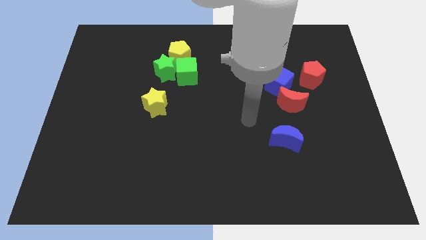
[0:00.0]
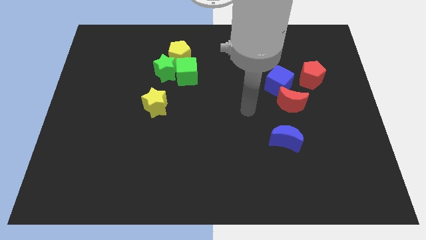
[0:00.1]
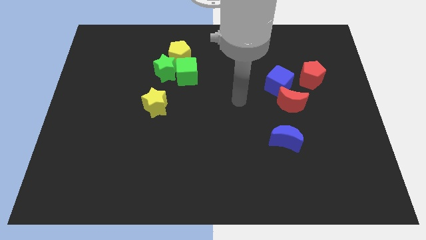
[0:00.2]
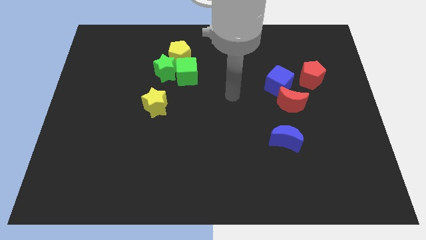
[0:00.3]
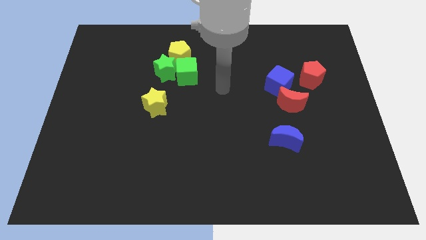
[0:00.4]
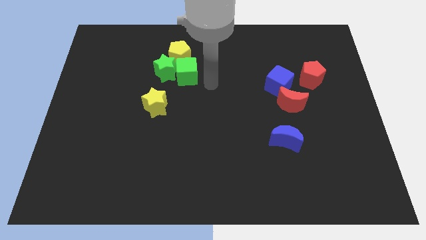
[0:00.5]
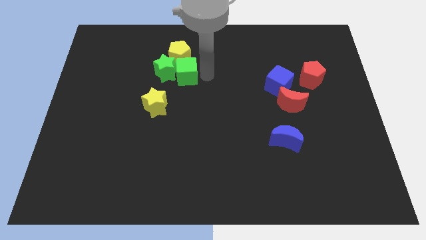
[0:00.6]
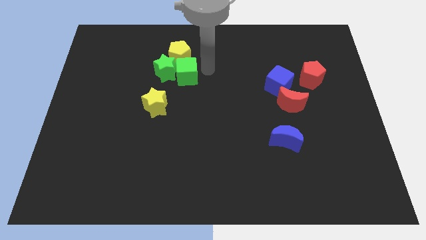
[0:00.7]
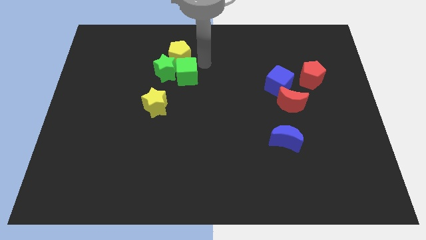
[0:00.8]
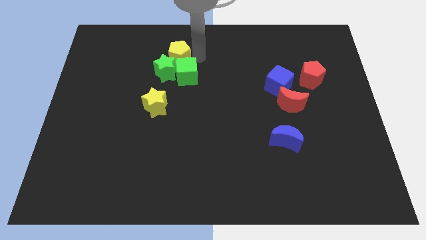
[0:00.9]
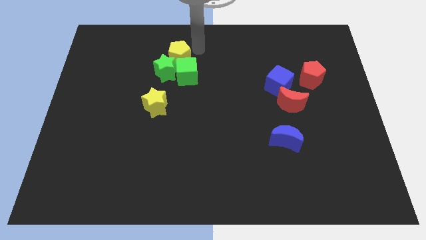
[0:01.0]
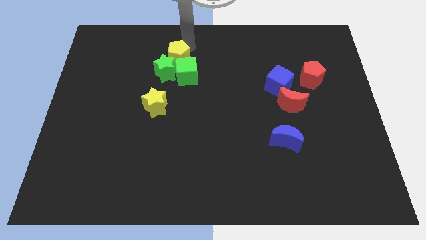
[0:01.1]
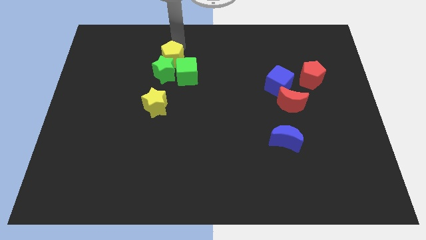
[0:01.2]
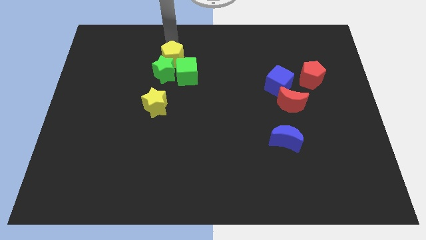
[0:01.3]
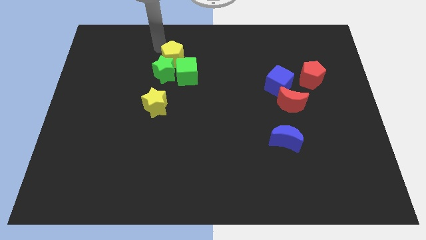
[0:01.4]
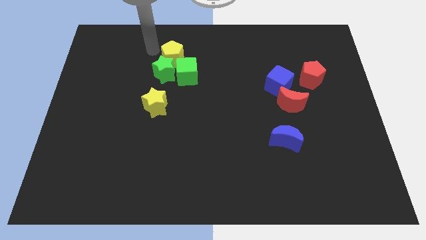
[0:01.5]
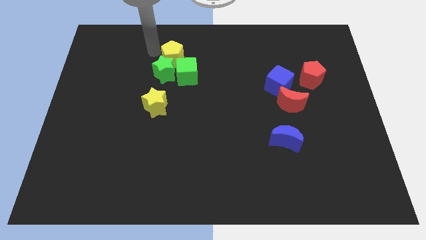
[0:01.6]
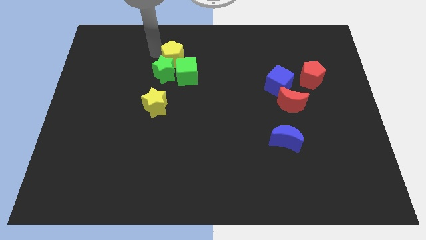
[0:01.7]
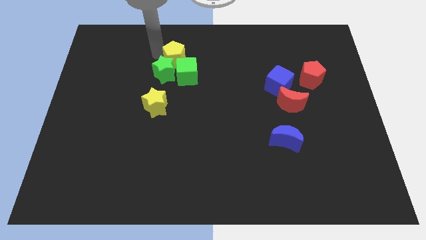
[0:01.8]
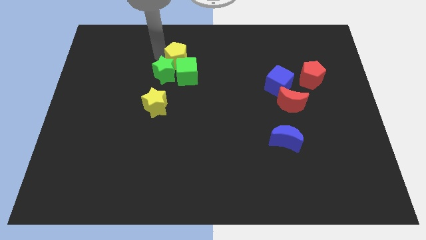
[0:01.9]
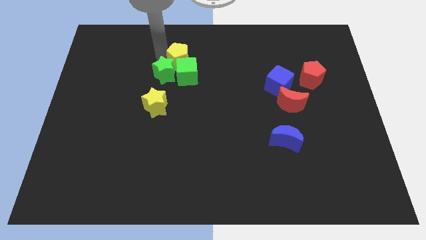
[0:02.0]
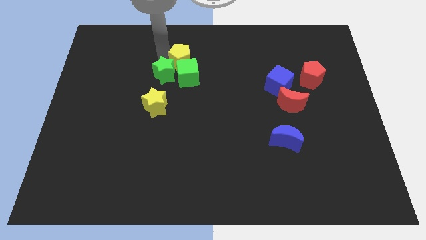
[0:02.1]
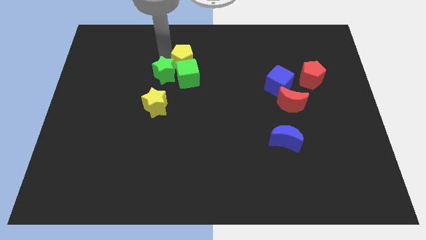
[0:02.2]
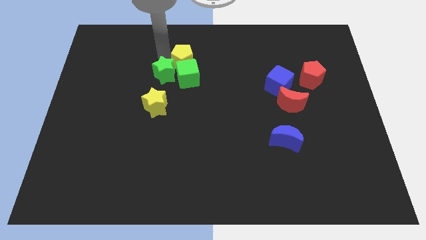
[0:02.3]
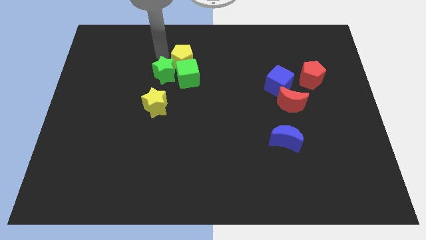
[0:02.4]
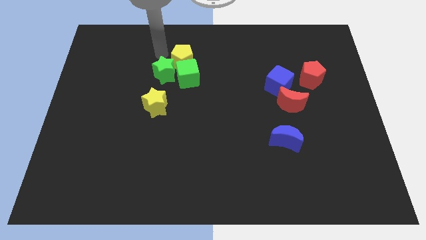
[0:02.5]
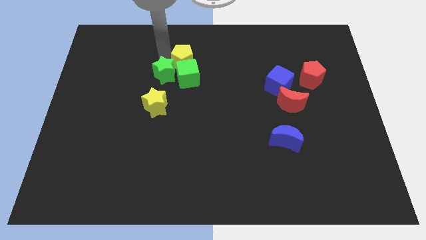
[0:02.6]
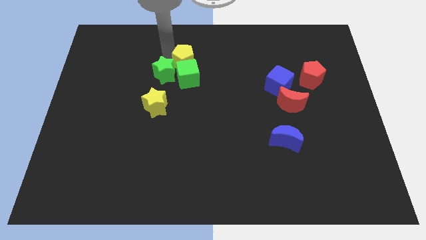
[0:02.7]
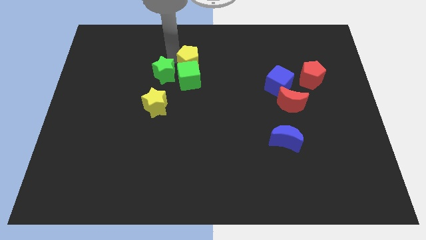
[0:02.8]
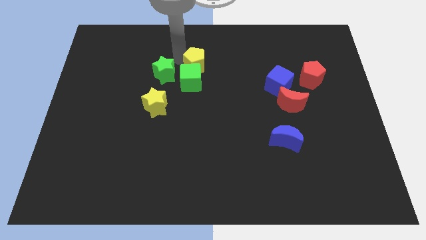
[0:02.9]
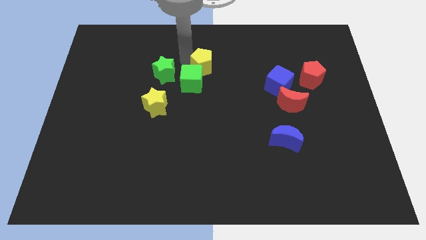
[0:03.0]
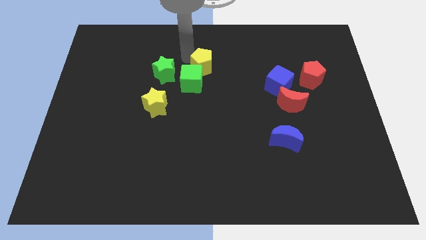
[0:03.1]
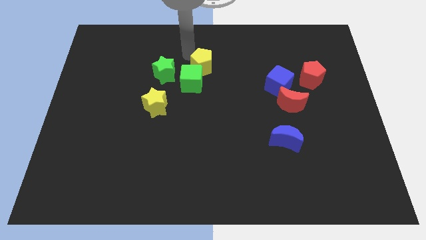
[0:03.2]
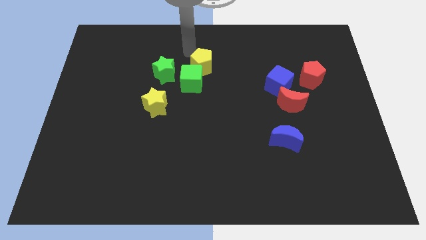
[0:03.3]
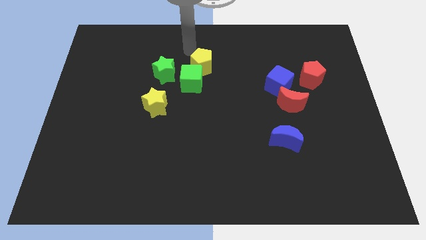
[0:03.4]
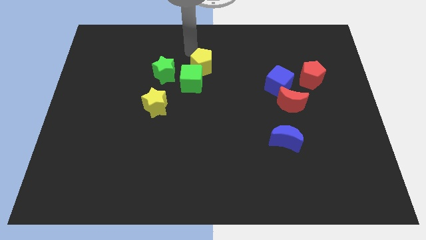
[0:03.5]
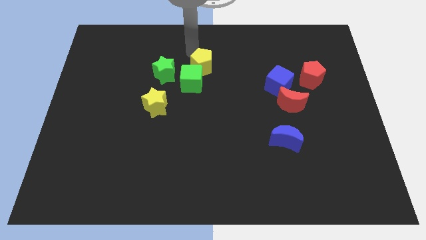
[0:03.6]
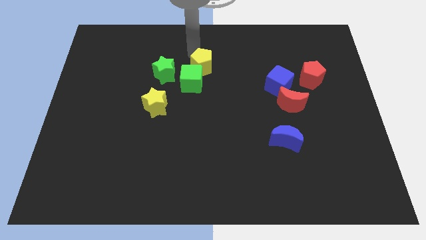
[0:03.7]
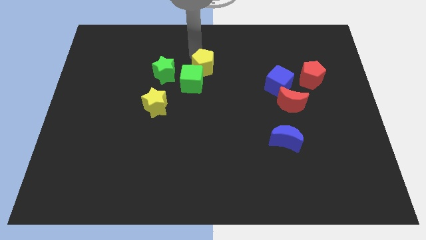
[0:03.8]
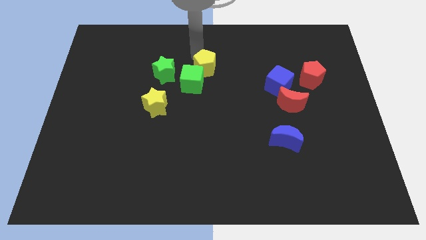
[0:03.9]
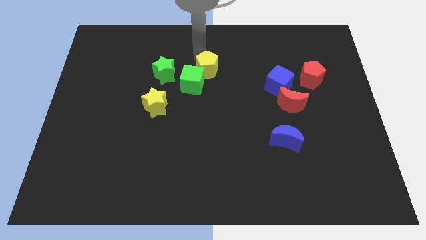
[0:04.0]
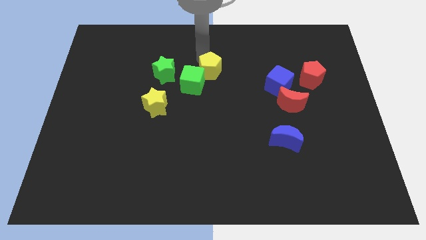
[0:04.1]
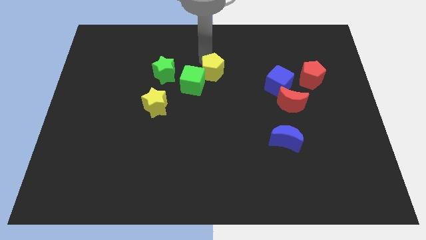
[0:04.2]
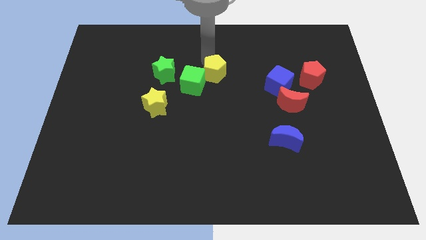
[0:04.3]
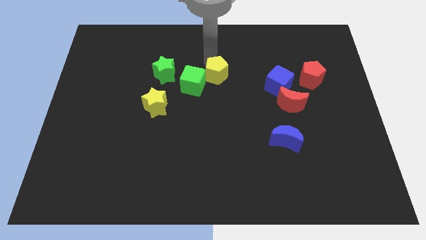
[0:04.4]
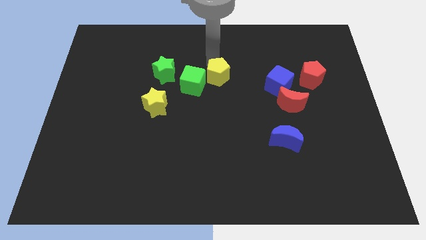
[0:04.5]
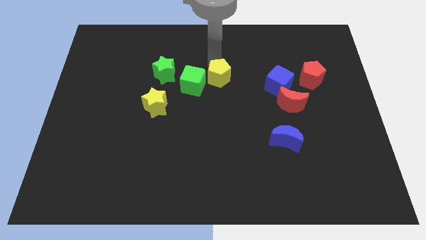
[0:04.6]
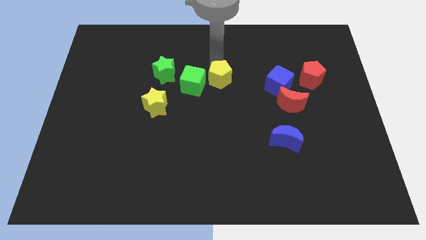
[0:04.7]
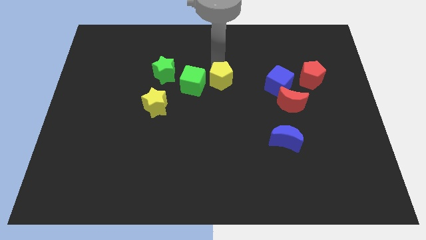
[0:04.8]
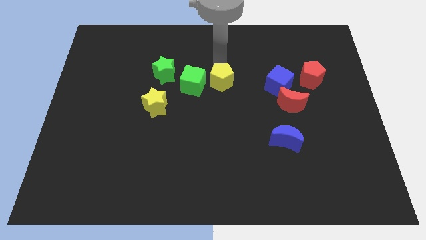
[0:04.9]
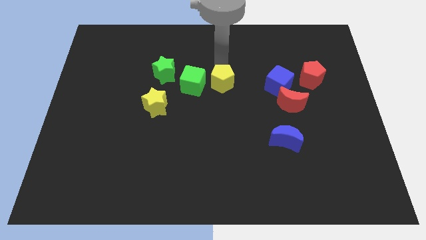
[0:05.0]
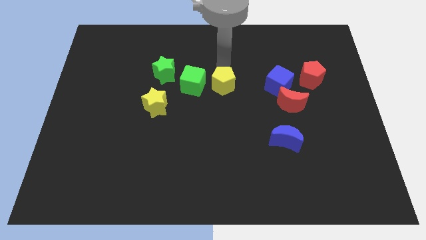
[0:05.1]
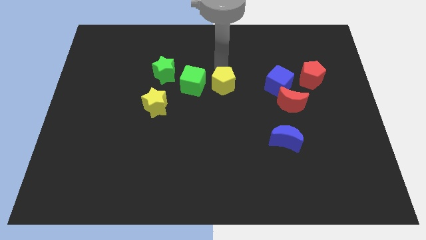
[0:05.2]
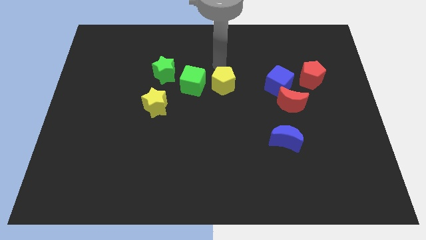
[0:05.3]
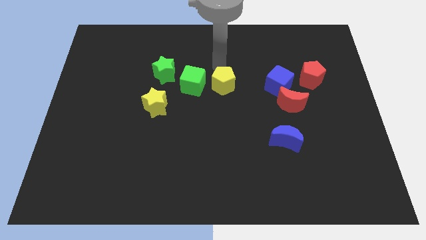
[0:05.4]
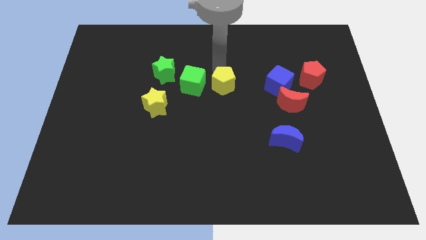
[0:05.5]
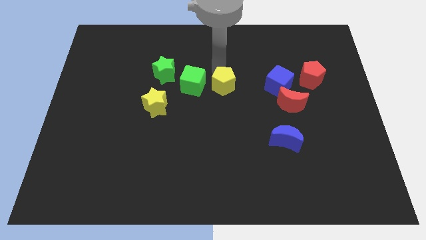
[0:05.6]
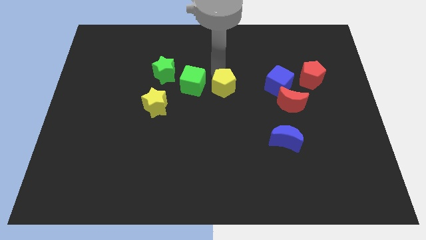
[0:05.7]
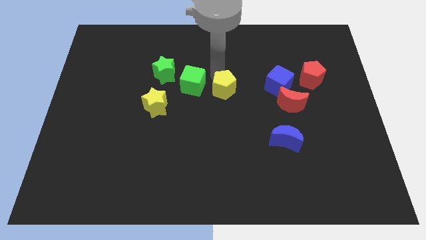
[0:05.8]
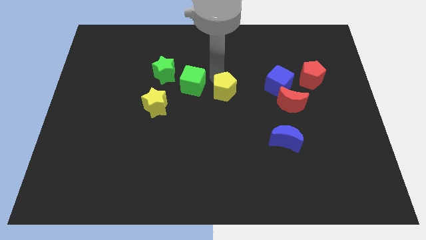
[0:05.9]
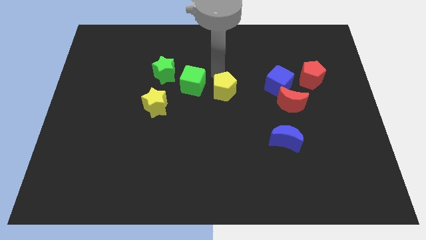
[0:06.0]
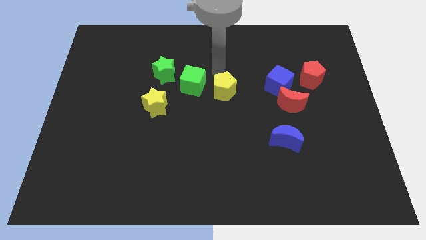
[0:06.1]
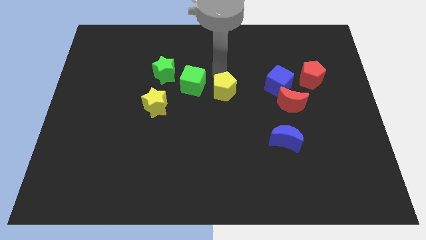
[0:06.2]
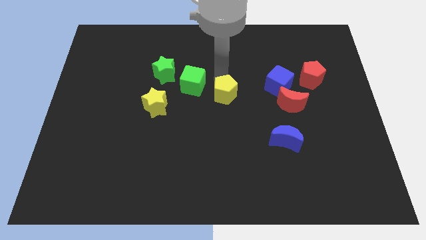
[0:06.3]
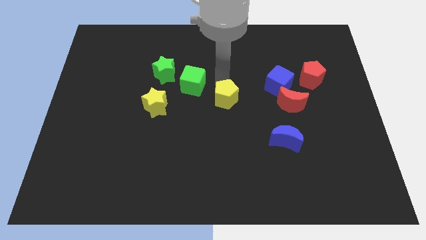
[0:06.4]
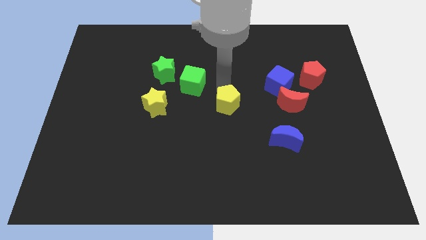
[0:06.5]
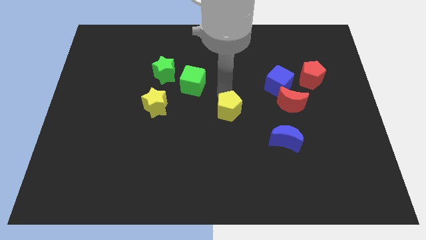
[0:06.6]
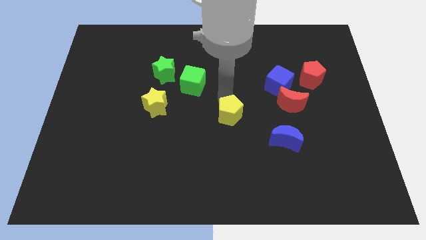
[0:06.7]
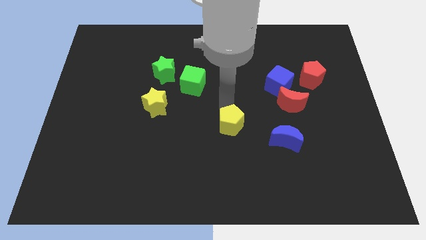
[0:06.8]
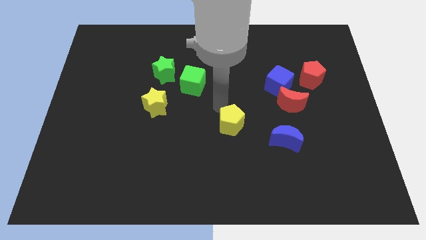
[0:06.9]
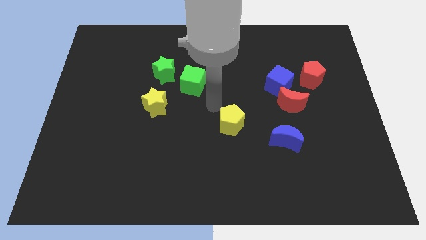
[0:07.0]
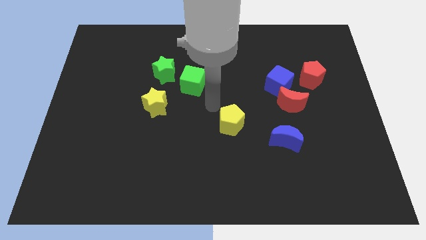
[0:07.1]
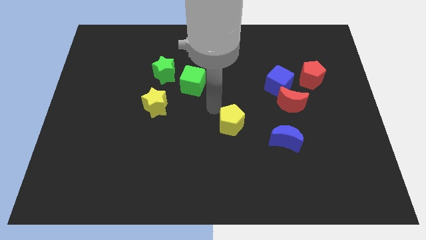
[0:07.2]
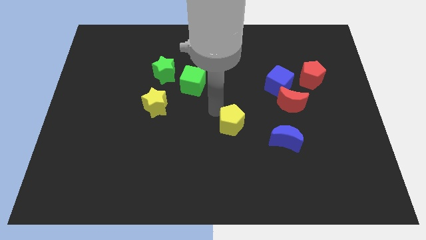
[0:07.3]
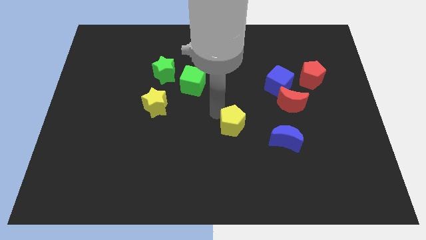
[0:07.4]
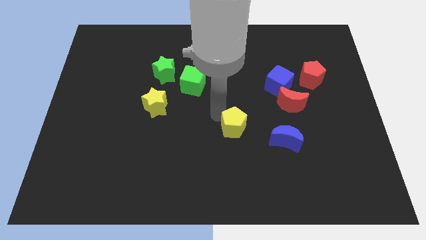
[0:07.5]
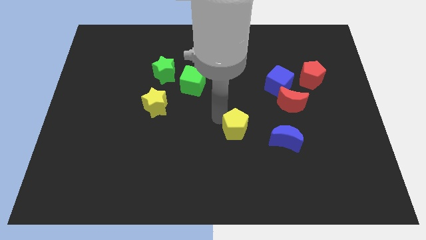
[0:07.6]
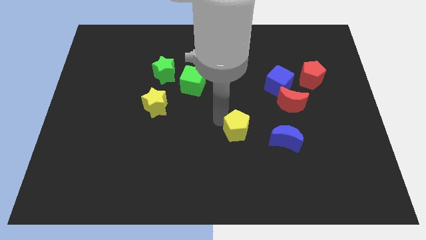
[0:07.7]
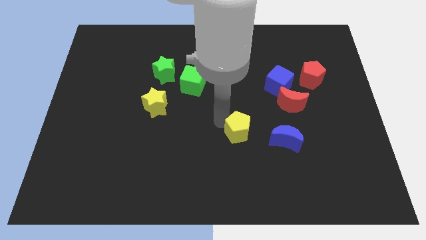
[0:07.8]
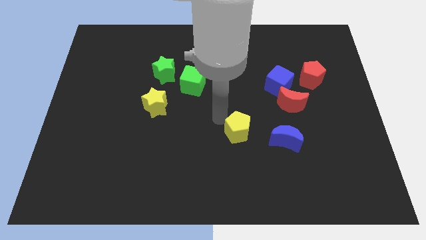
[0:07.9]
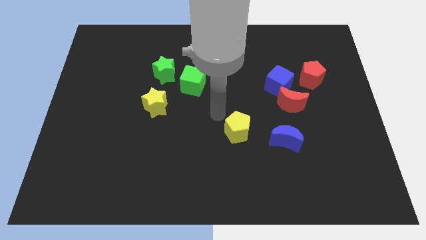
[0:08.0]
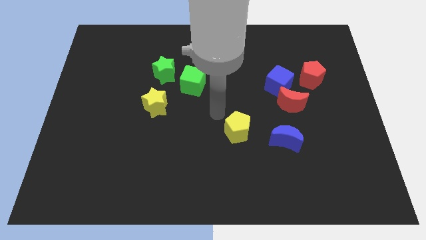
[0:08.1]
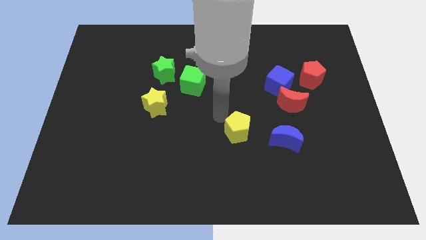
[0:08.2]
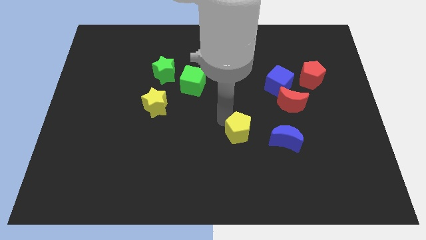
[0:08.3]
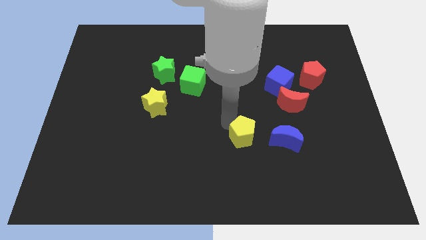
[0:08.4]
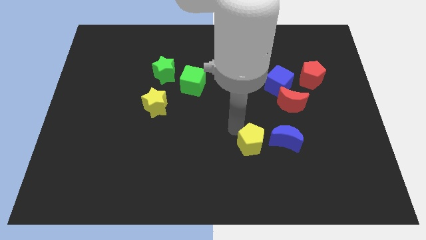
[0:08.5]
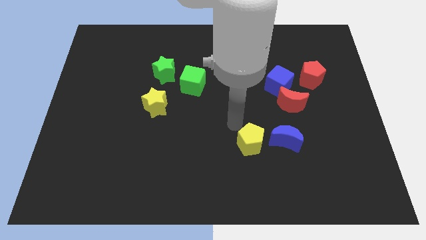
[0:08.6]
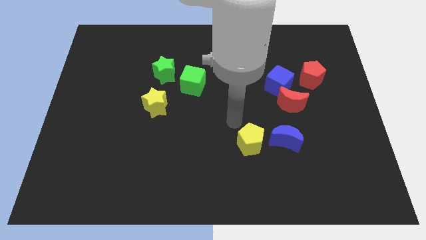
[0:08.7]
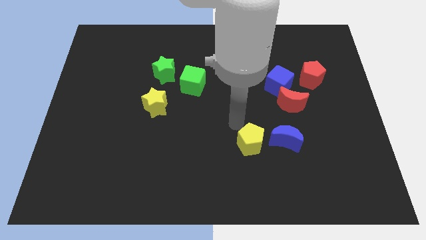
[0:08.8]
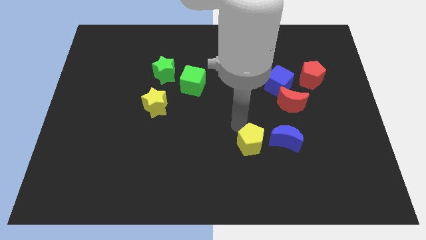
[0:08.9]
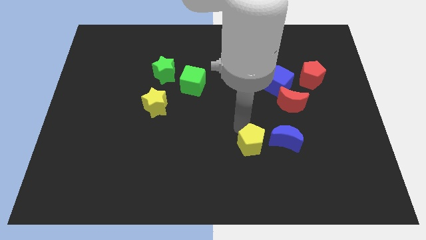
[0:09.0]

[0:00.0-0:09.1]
move the yellow pentagon to the bottom left of the blue moon
